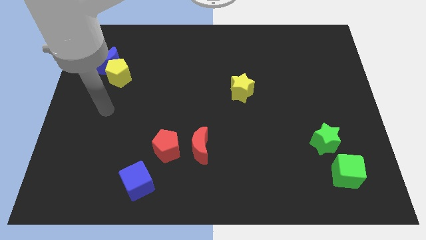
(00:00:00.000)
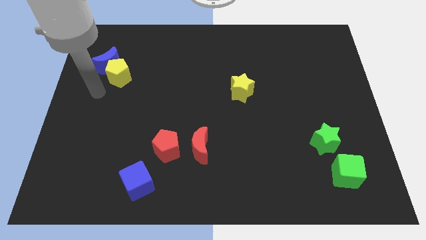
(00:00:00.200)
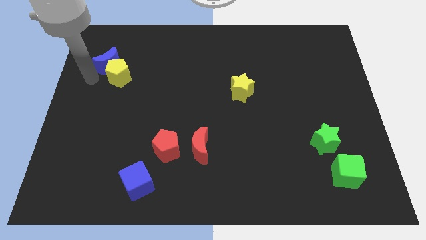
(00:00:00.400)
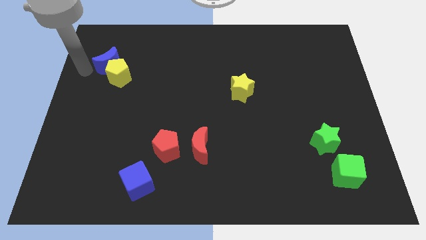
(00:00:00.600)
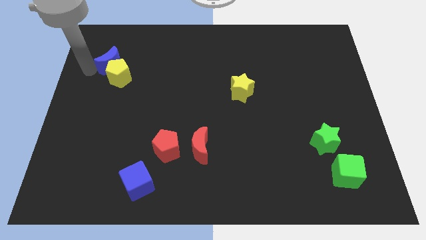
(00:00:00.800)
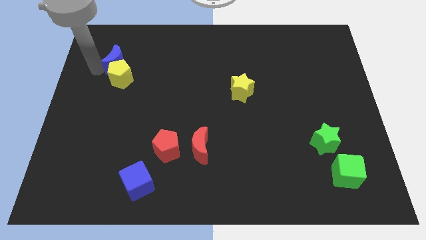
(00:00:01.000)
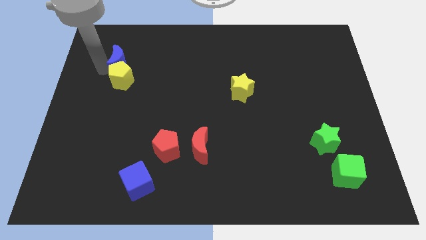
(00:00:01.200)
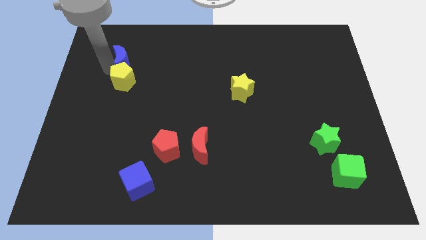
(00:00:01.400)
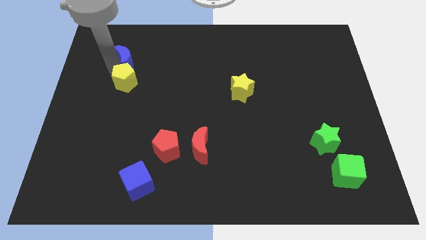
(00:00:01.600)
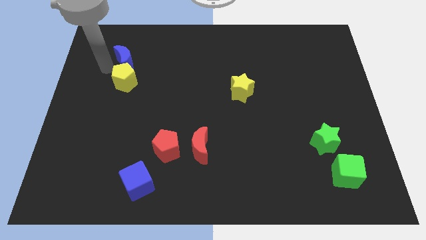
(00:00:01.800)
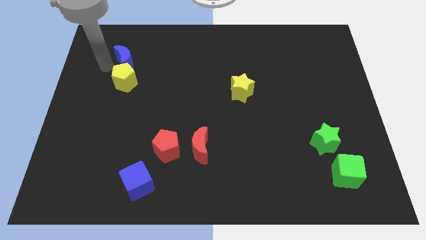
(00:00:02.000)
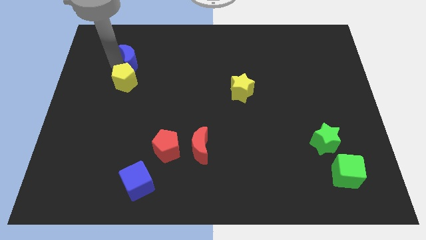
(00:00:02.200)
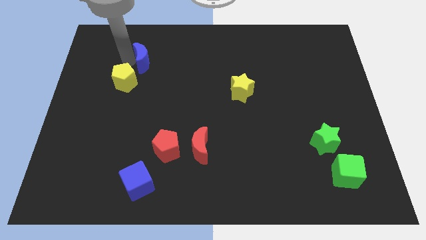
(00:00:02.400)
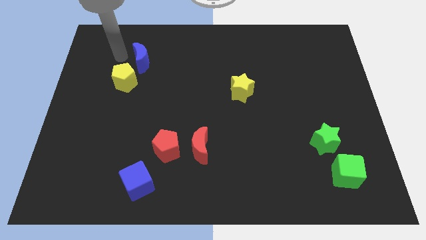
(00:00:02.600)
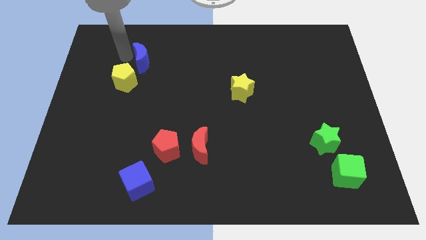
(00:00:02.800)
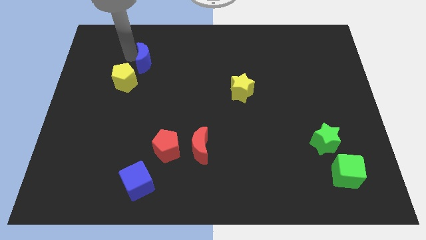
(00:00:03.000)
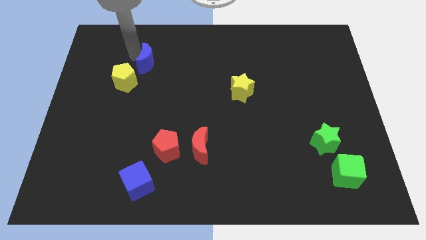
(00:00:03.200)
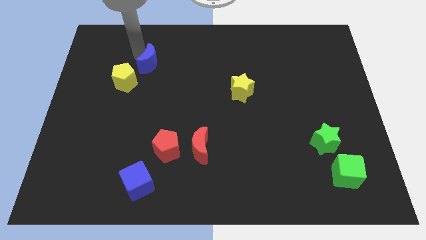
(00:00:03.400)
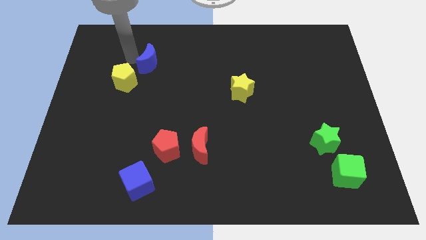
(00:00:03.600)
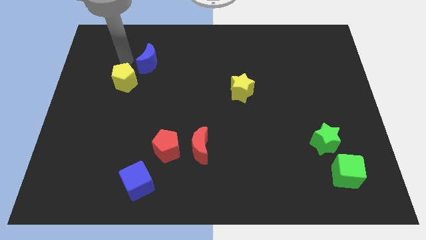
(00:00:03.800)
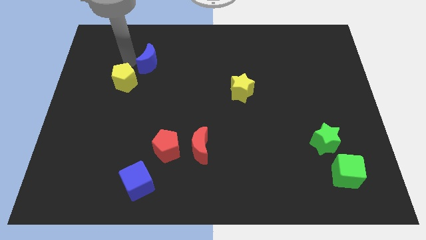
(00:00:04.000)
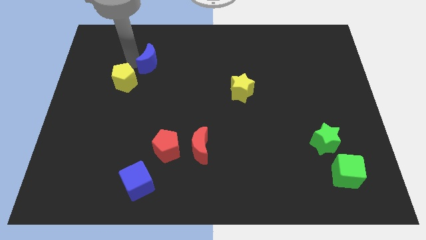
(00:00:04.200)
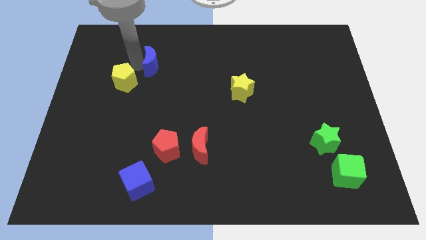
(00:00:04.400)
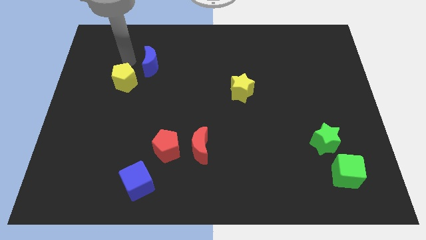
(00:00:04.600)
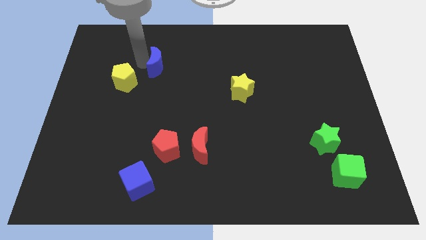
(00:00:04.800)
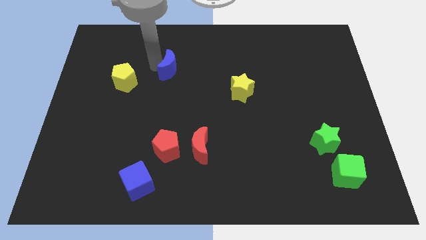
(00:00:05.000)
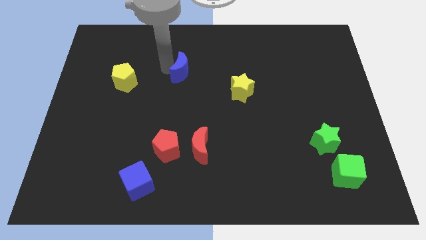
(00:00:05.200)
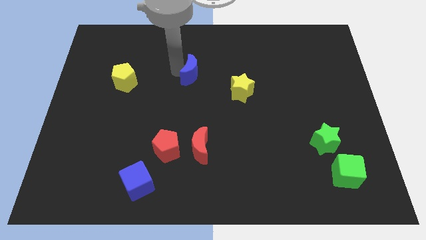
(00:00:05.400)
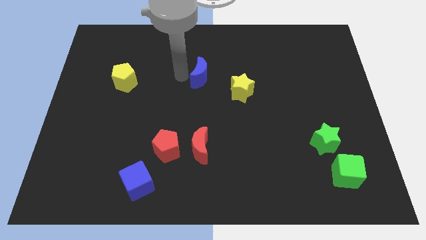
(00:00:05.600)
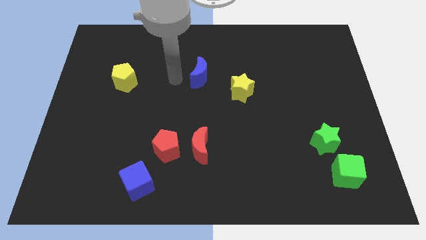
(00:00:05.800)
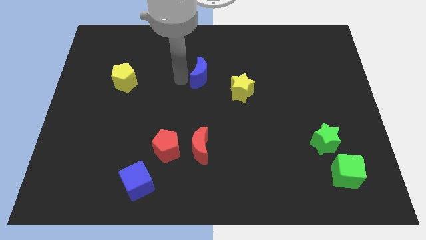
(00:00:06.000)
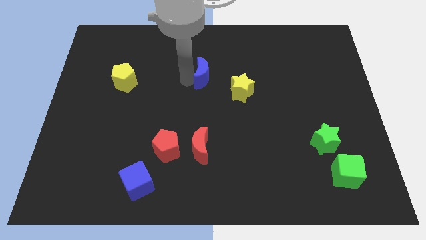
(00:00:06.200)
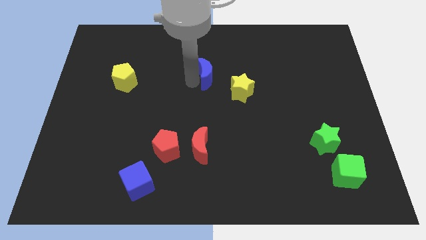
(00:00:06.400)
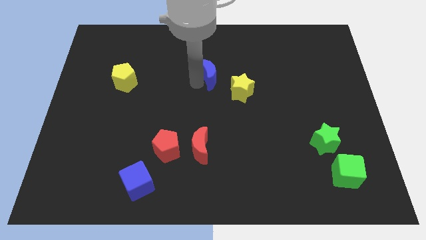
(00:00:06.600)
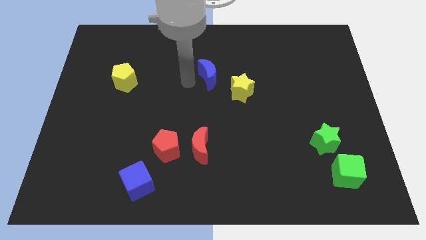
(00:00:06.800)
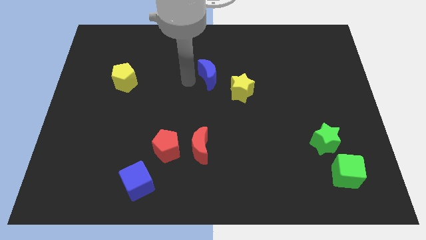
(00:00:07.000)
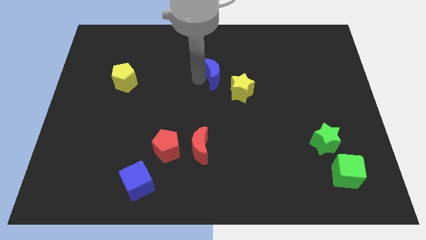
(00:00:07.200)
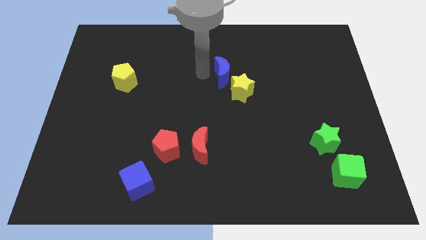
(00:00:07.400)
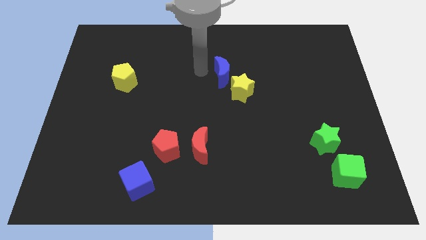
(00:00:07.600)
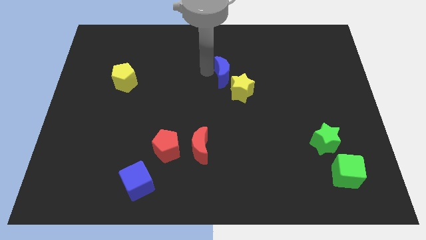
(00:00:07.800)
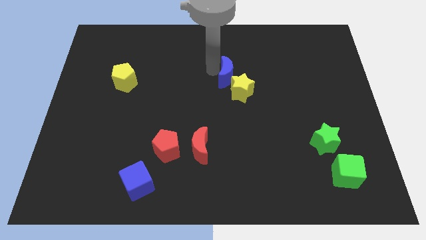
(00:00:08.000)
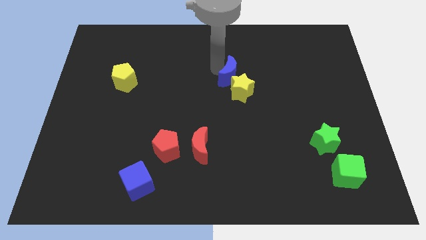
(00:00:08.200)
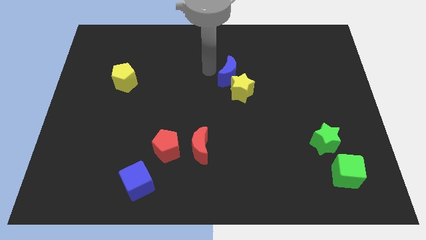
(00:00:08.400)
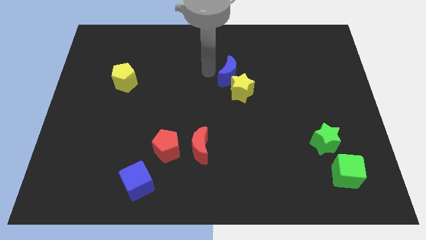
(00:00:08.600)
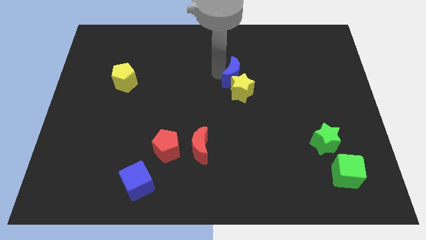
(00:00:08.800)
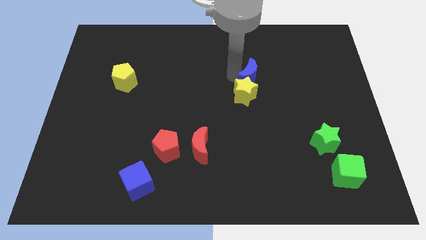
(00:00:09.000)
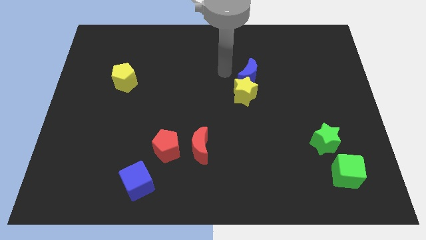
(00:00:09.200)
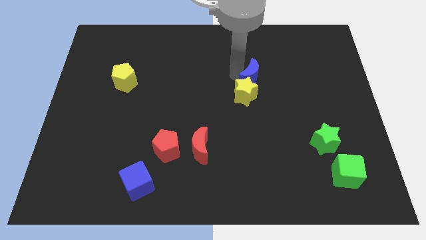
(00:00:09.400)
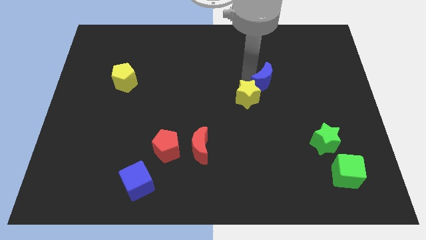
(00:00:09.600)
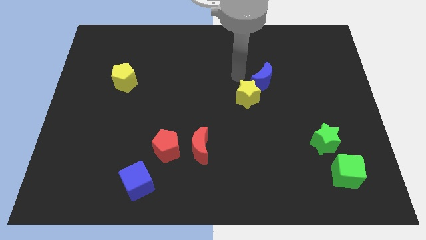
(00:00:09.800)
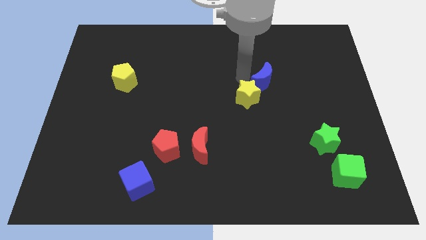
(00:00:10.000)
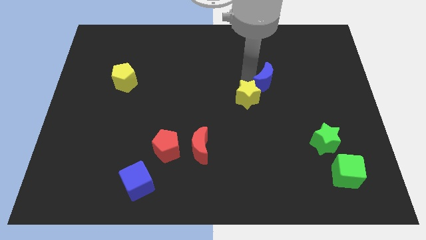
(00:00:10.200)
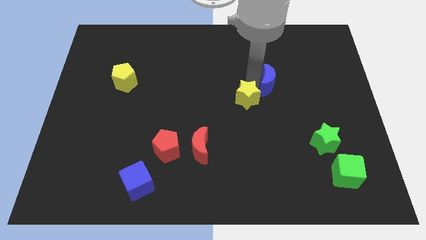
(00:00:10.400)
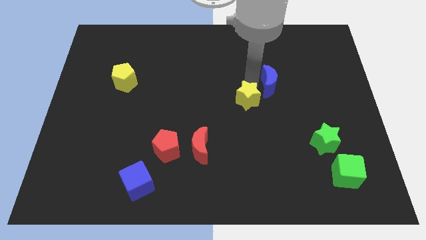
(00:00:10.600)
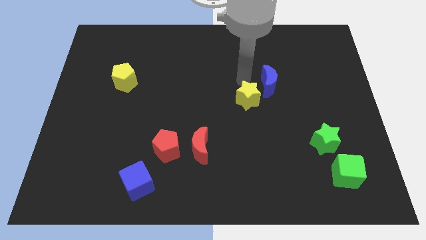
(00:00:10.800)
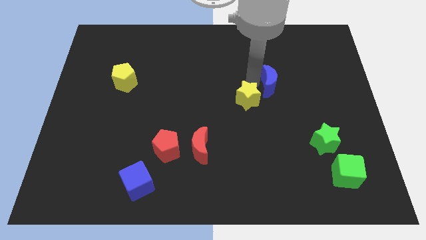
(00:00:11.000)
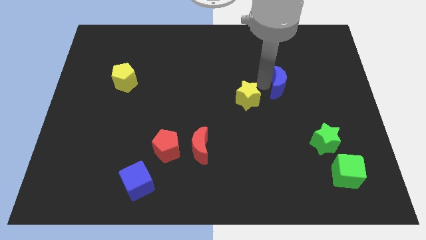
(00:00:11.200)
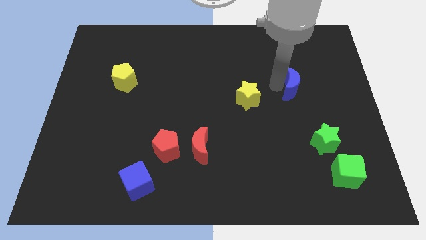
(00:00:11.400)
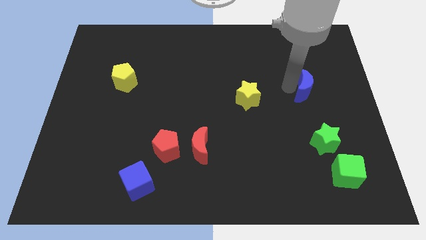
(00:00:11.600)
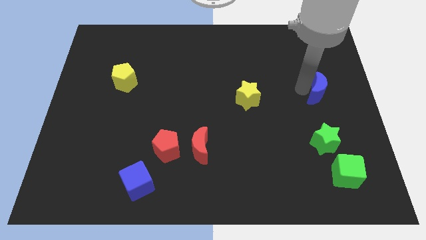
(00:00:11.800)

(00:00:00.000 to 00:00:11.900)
push the blue moon to the center right

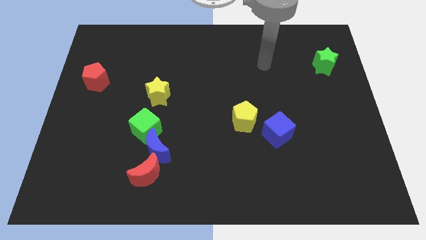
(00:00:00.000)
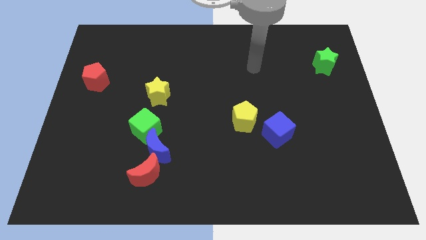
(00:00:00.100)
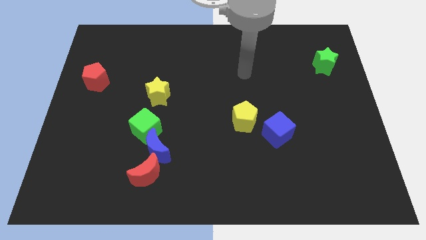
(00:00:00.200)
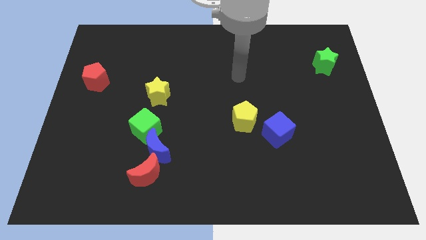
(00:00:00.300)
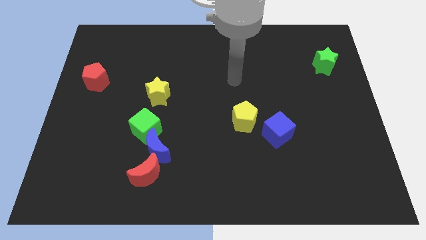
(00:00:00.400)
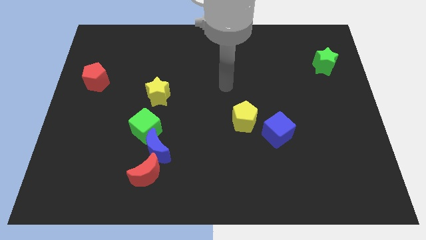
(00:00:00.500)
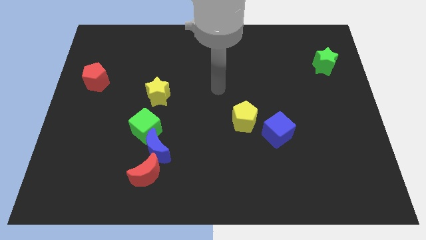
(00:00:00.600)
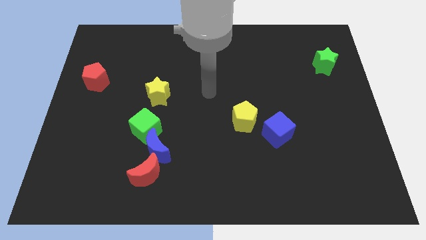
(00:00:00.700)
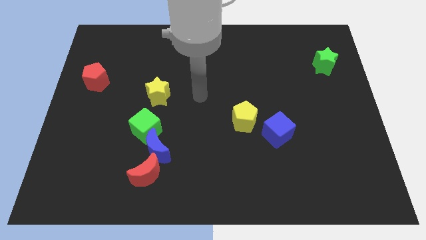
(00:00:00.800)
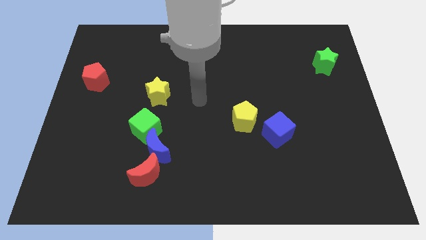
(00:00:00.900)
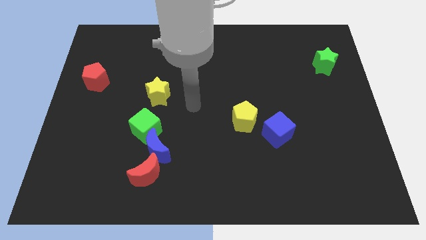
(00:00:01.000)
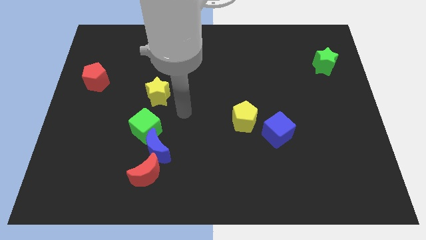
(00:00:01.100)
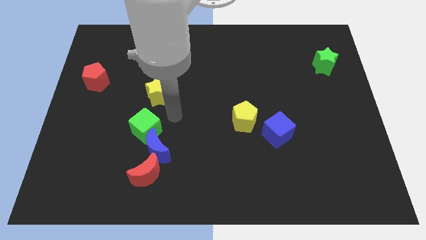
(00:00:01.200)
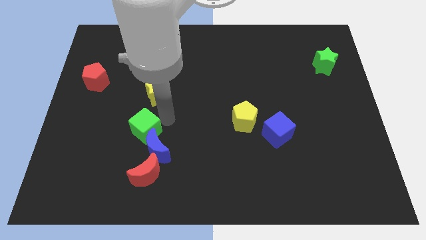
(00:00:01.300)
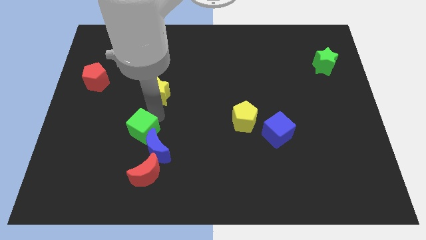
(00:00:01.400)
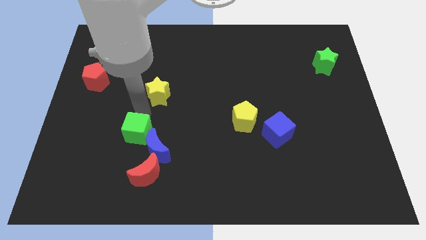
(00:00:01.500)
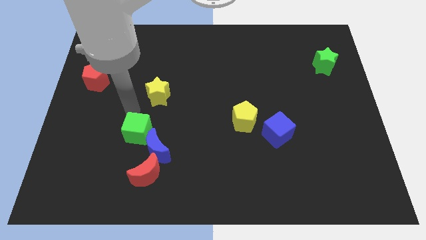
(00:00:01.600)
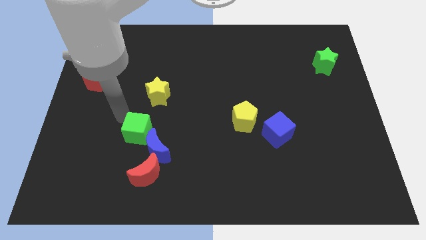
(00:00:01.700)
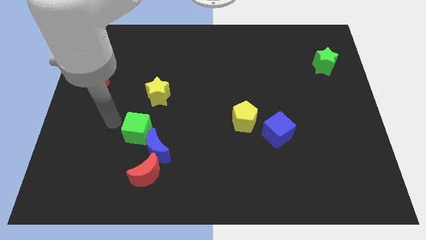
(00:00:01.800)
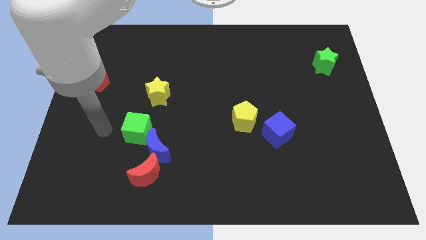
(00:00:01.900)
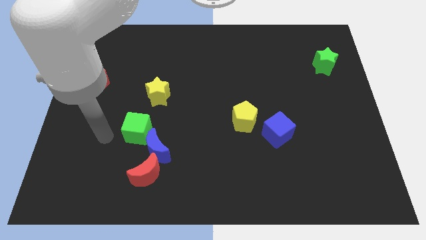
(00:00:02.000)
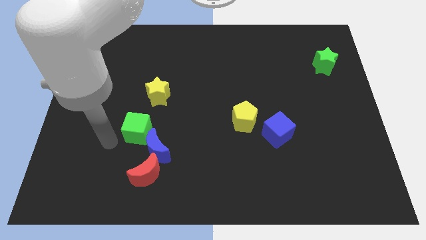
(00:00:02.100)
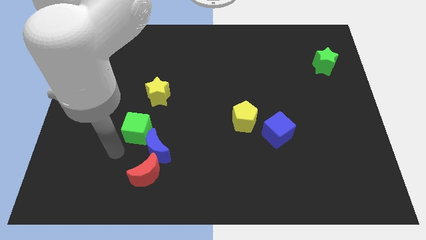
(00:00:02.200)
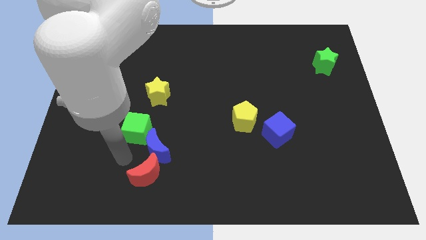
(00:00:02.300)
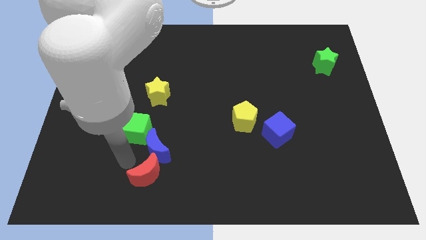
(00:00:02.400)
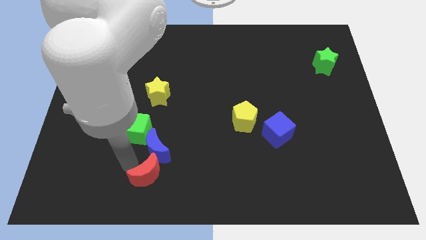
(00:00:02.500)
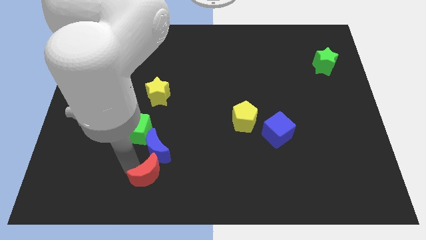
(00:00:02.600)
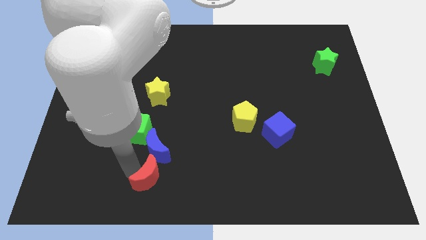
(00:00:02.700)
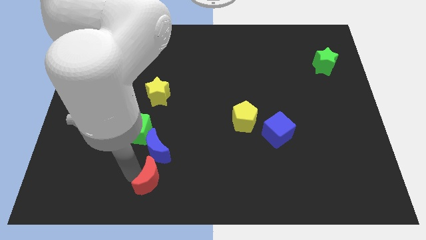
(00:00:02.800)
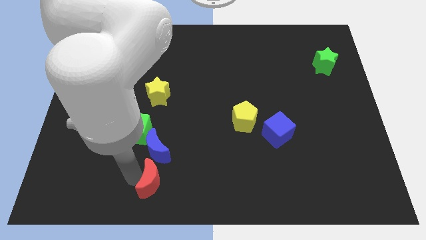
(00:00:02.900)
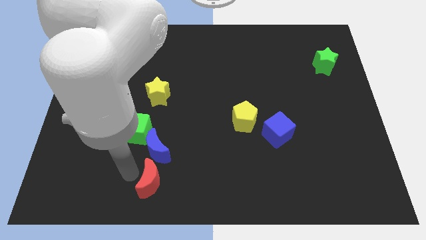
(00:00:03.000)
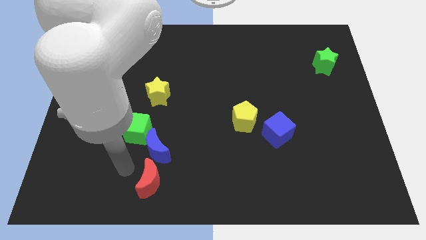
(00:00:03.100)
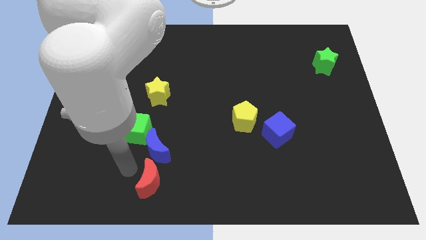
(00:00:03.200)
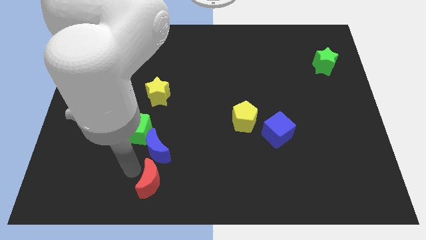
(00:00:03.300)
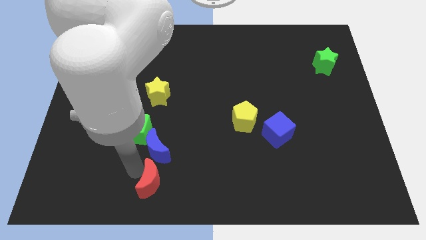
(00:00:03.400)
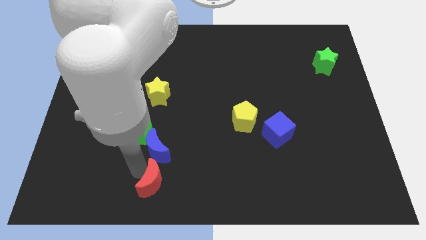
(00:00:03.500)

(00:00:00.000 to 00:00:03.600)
move the red moon to the bottom side
